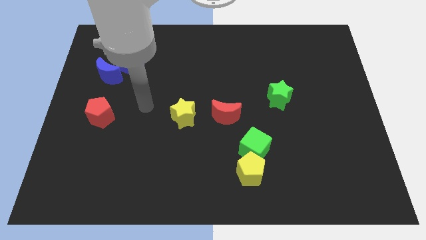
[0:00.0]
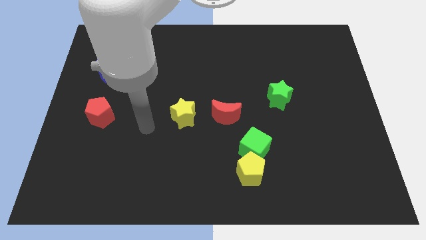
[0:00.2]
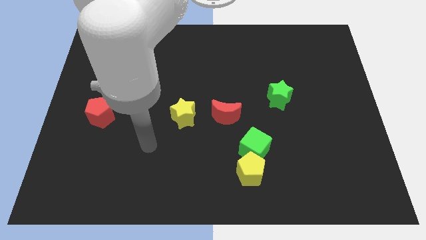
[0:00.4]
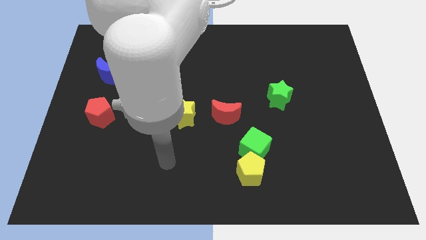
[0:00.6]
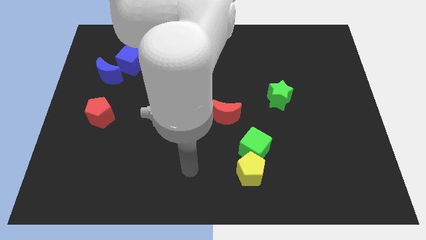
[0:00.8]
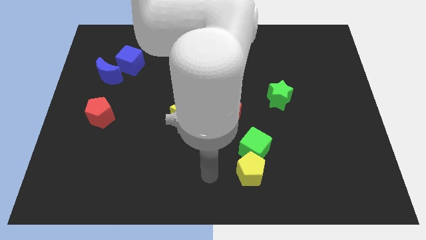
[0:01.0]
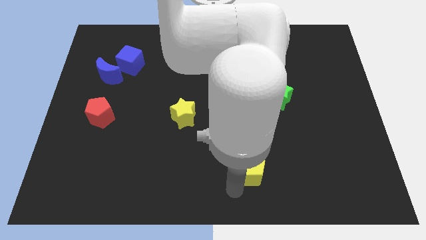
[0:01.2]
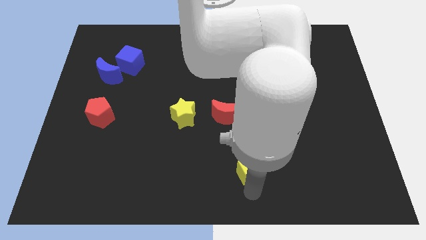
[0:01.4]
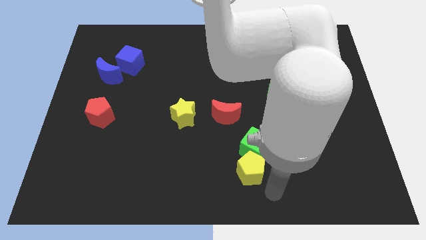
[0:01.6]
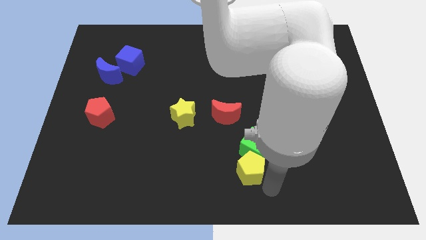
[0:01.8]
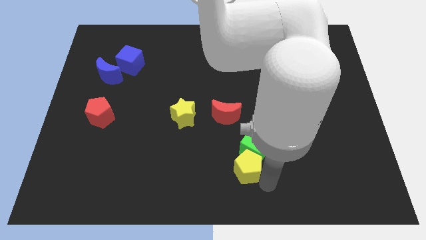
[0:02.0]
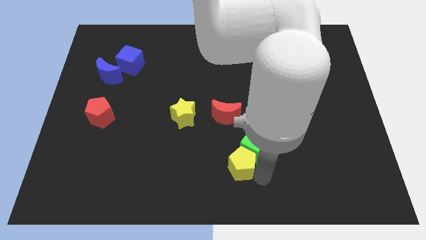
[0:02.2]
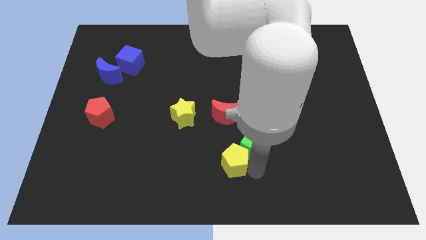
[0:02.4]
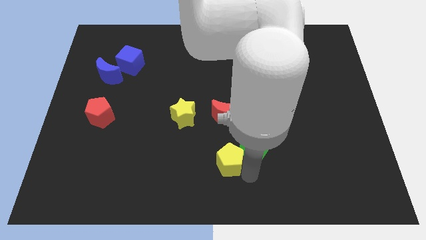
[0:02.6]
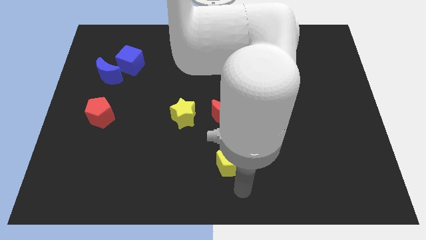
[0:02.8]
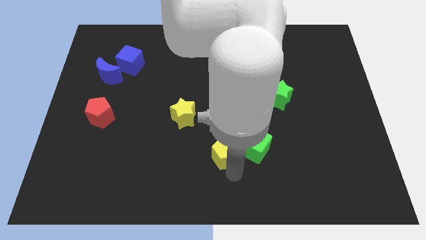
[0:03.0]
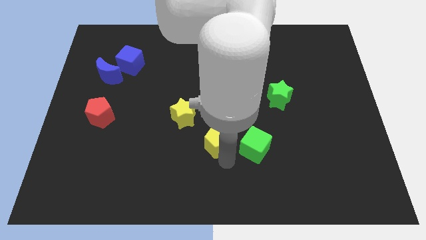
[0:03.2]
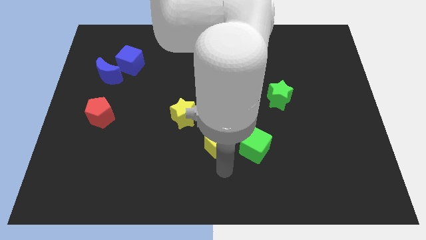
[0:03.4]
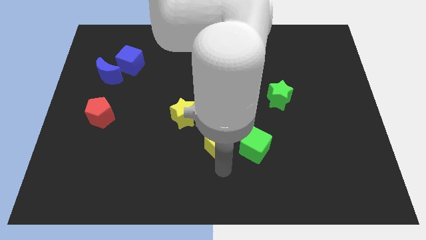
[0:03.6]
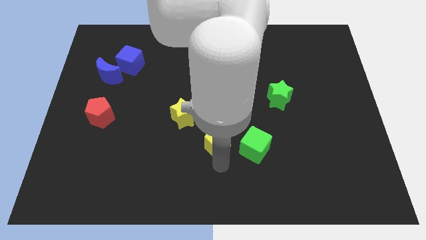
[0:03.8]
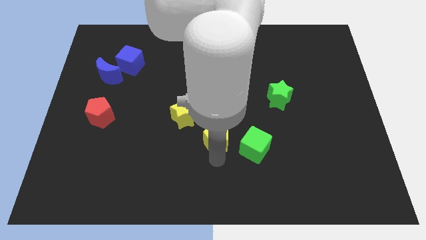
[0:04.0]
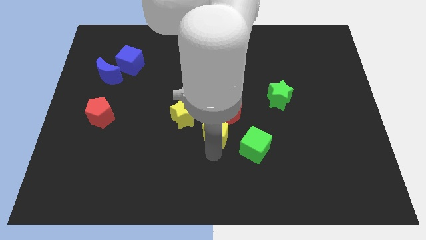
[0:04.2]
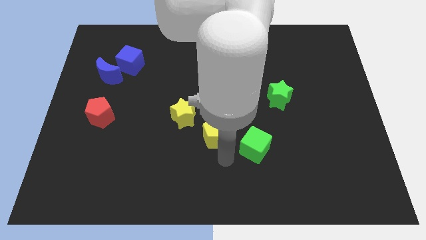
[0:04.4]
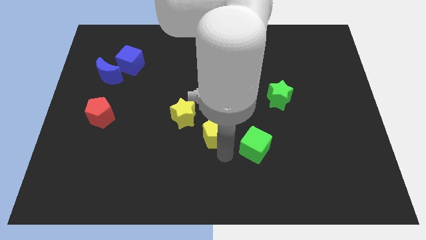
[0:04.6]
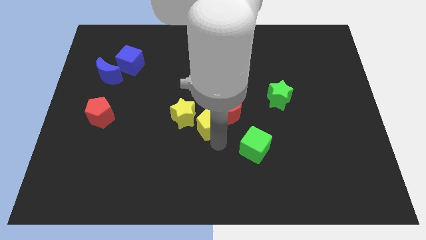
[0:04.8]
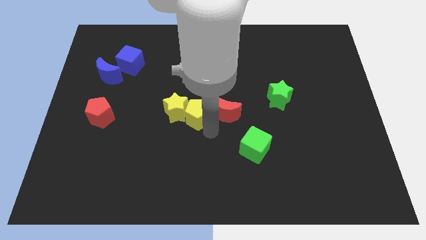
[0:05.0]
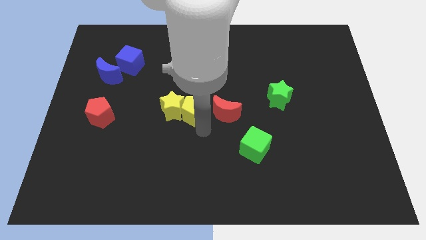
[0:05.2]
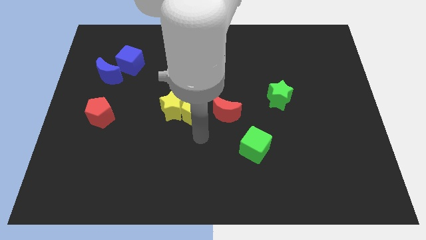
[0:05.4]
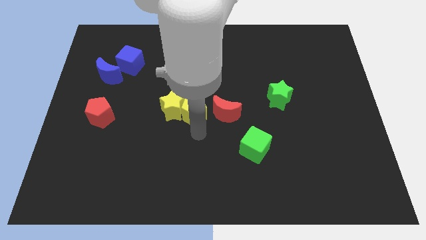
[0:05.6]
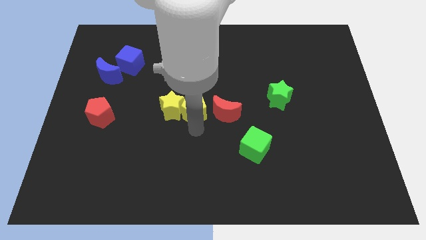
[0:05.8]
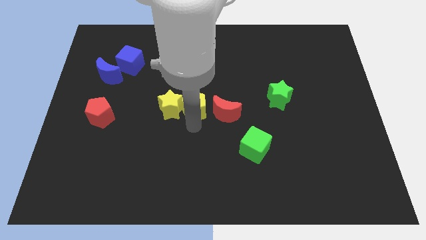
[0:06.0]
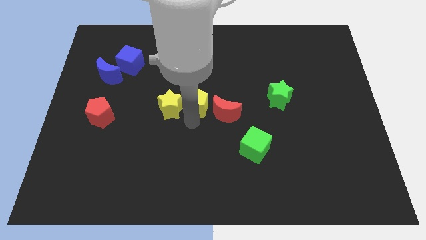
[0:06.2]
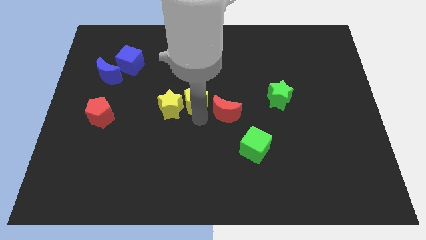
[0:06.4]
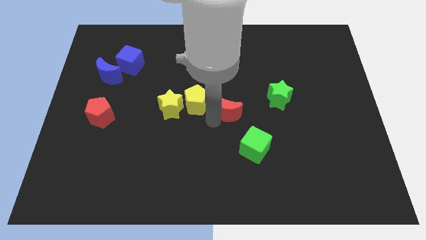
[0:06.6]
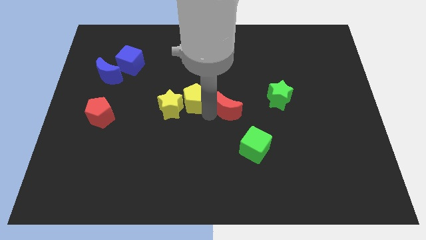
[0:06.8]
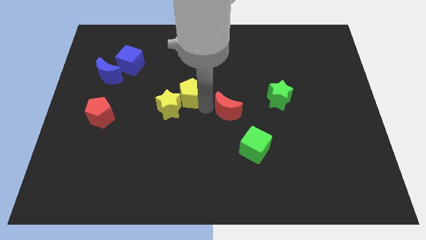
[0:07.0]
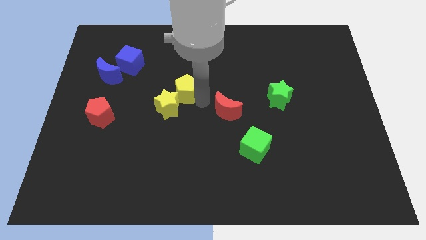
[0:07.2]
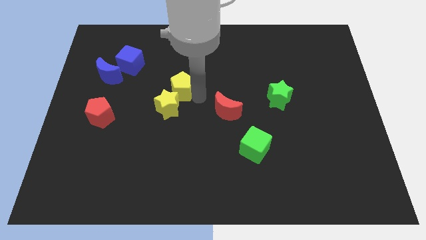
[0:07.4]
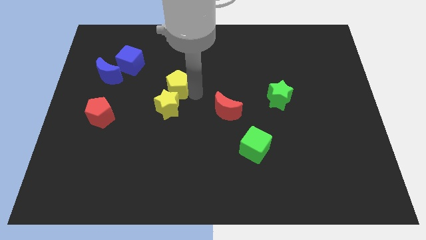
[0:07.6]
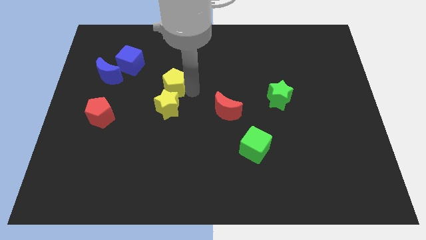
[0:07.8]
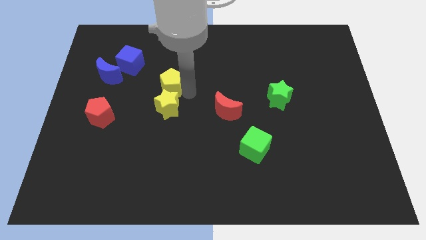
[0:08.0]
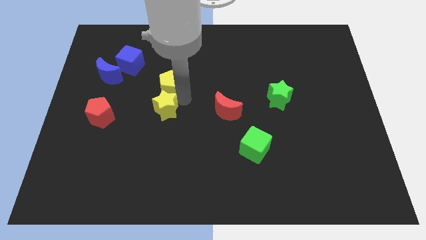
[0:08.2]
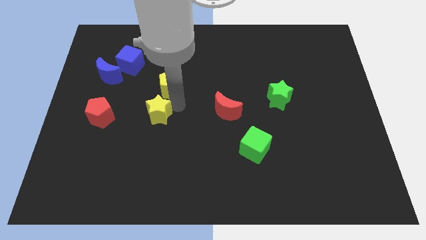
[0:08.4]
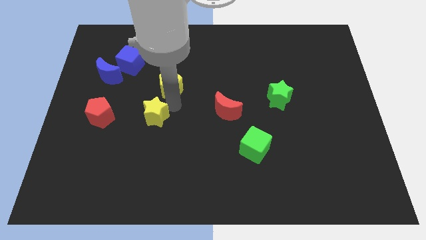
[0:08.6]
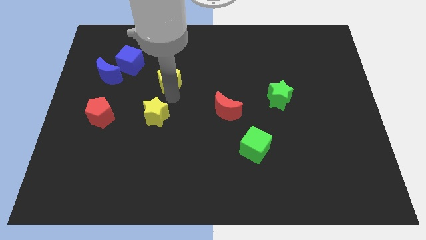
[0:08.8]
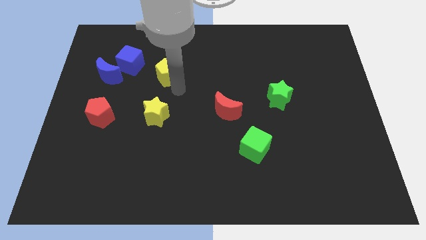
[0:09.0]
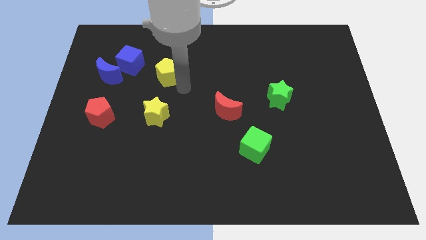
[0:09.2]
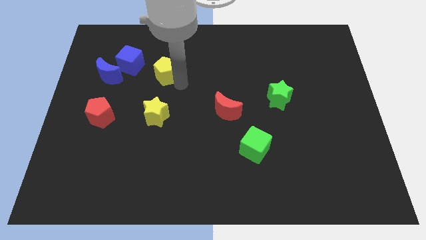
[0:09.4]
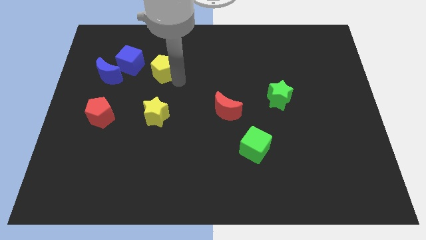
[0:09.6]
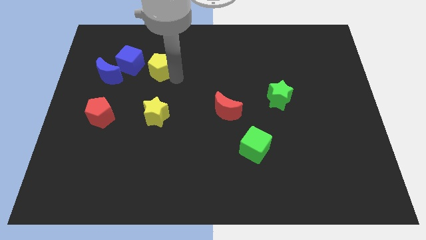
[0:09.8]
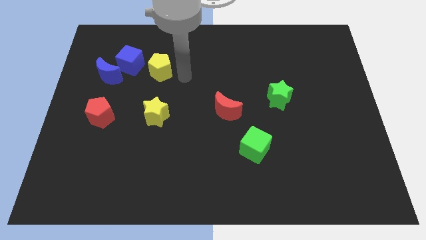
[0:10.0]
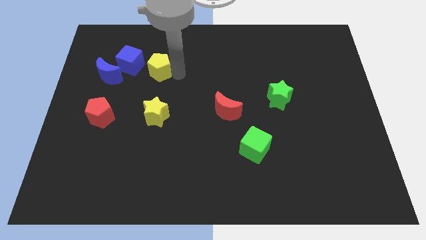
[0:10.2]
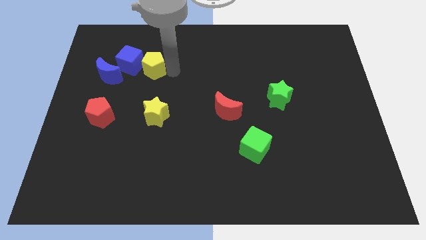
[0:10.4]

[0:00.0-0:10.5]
move the yellow pentagon to the blue cube

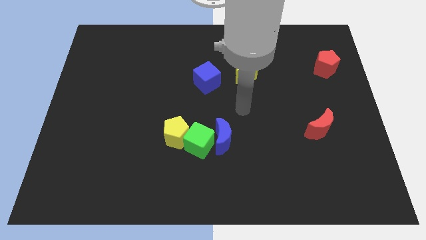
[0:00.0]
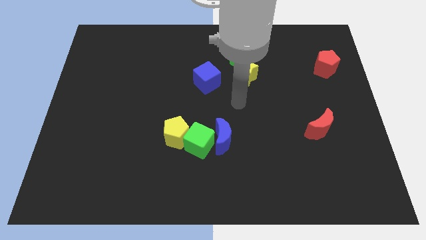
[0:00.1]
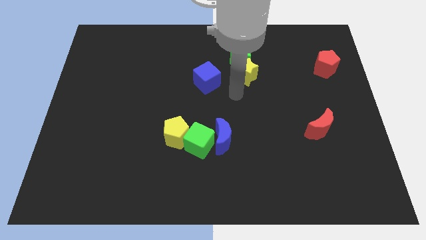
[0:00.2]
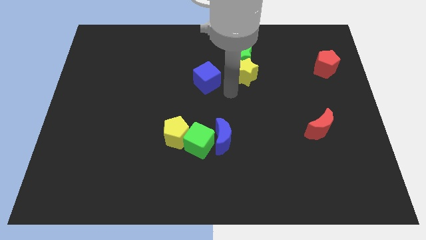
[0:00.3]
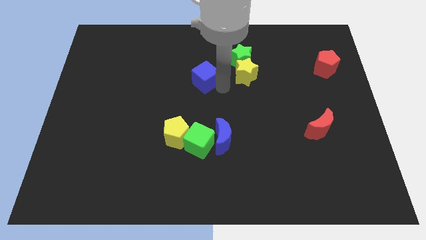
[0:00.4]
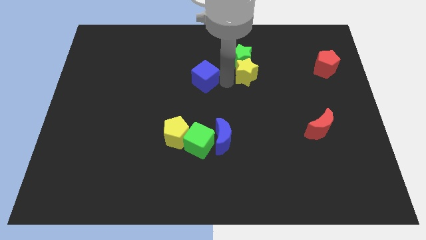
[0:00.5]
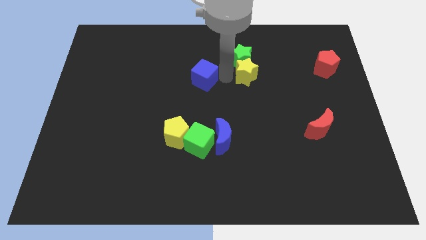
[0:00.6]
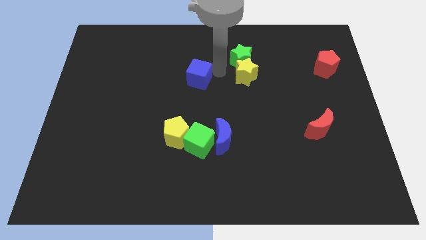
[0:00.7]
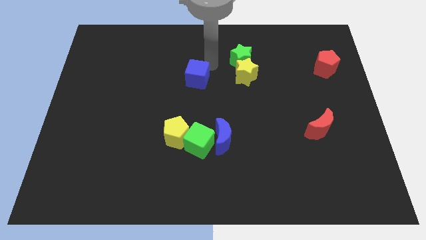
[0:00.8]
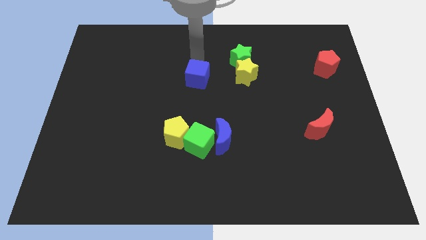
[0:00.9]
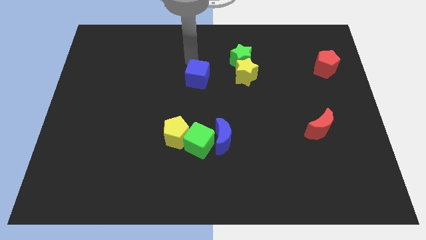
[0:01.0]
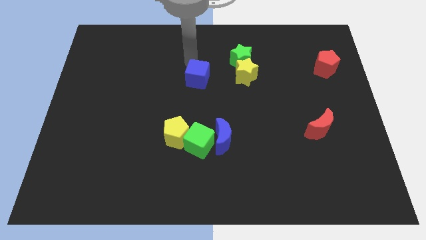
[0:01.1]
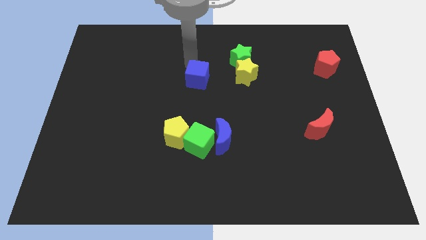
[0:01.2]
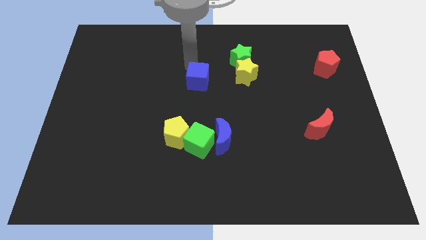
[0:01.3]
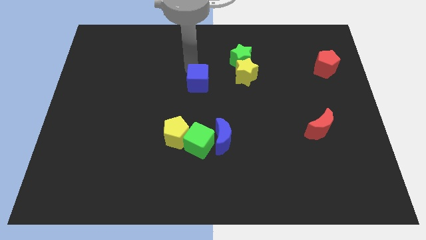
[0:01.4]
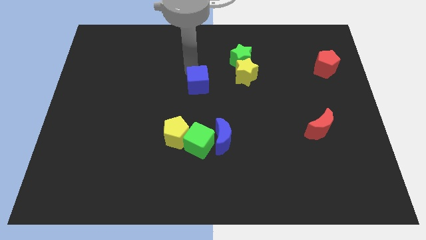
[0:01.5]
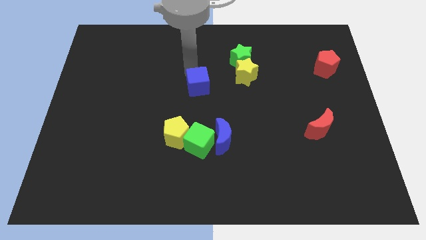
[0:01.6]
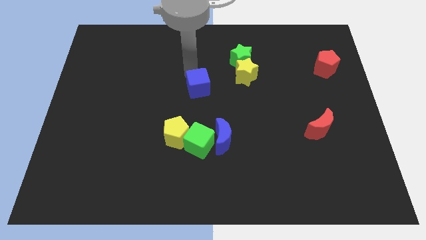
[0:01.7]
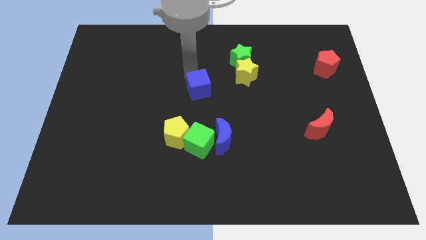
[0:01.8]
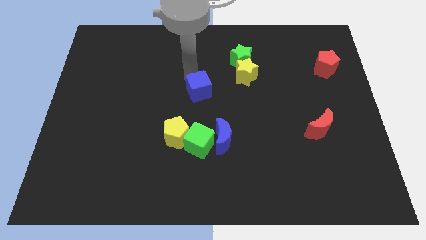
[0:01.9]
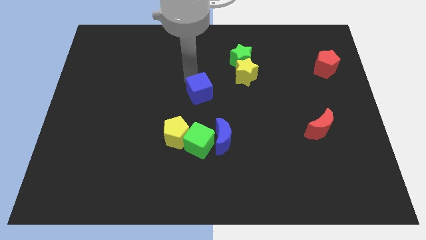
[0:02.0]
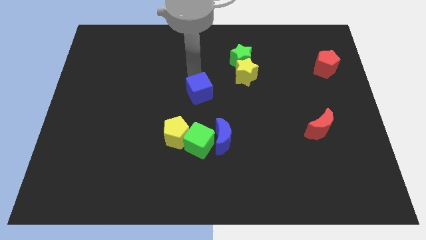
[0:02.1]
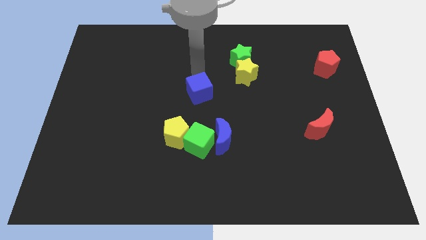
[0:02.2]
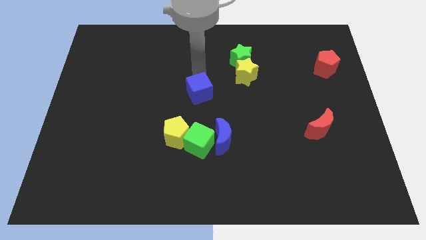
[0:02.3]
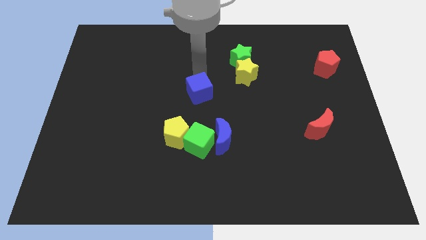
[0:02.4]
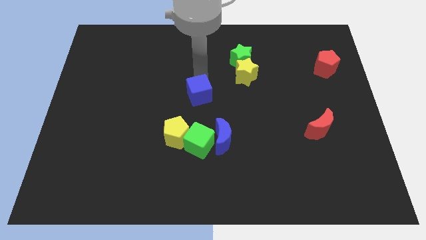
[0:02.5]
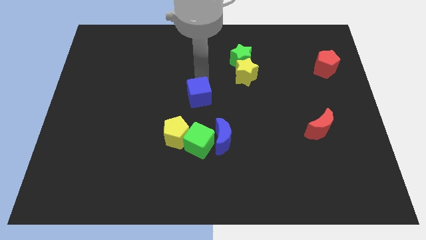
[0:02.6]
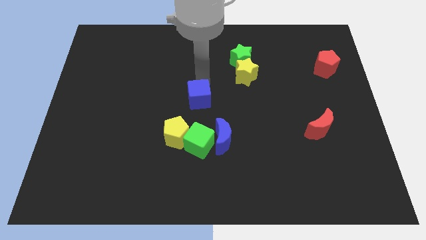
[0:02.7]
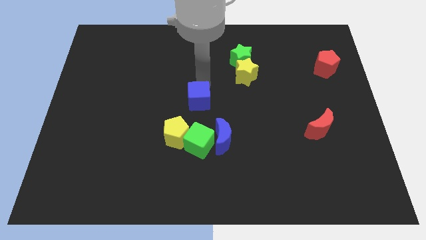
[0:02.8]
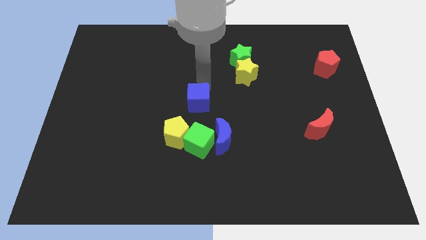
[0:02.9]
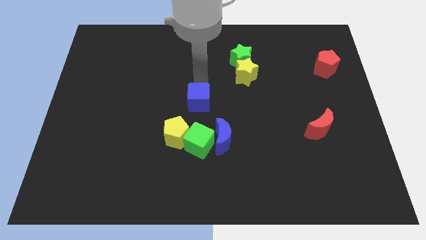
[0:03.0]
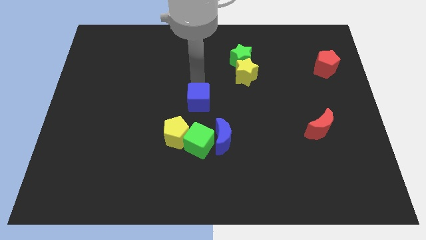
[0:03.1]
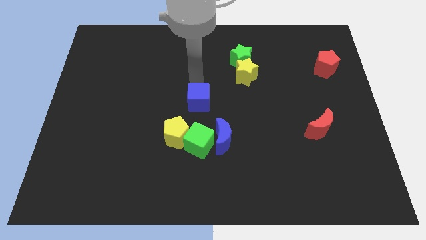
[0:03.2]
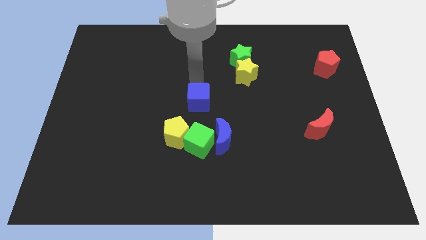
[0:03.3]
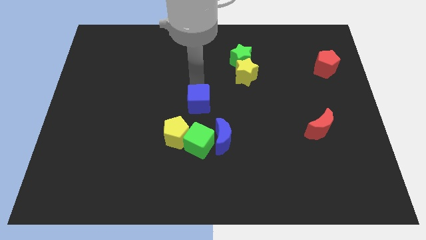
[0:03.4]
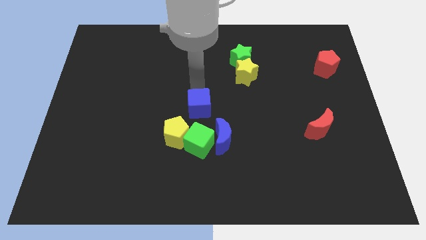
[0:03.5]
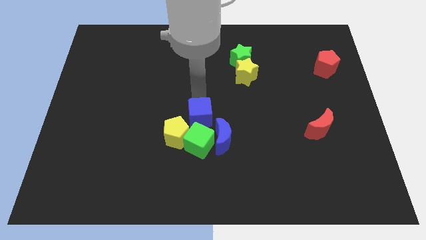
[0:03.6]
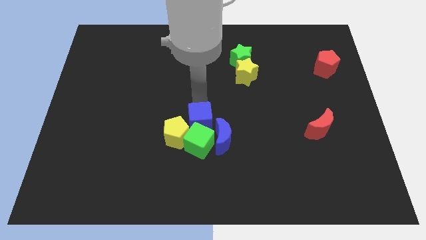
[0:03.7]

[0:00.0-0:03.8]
move the blue cube next to the green cube
